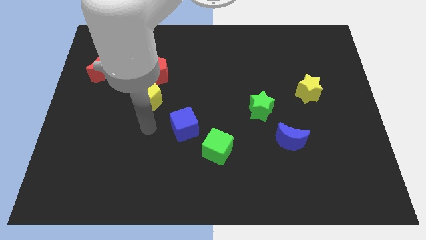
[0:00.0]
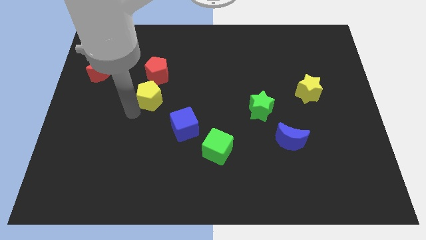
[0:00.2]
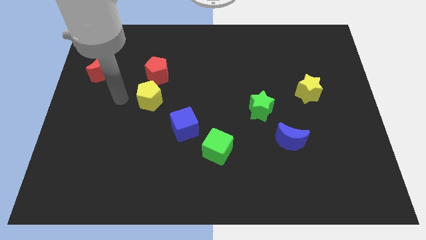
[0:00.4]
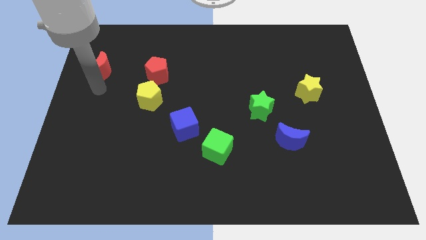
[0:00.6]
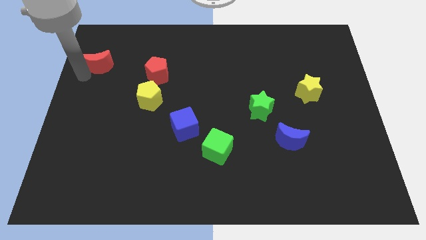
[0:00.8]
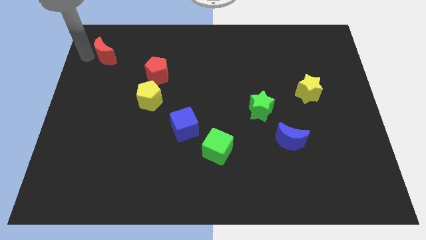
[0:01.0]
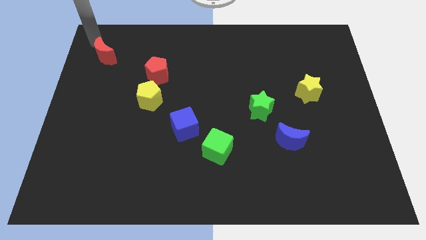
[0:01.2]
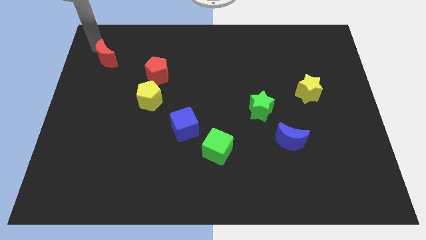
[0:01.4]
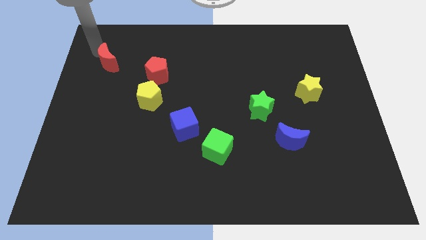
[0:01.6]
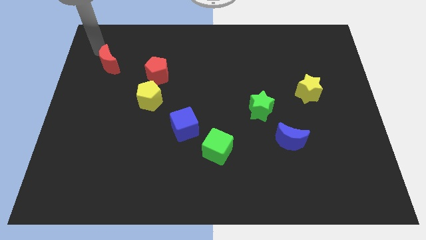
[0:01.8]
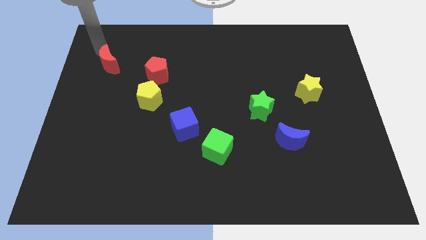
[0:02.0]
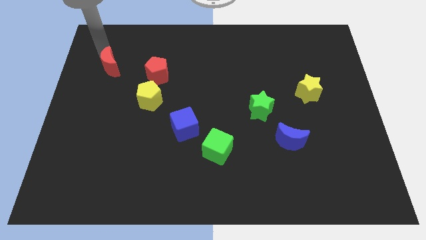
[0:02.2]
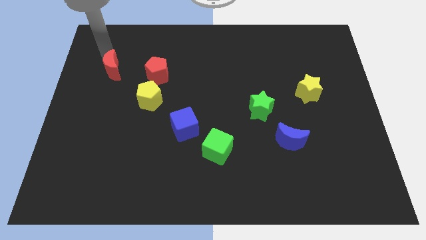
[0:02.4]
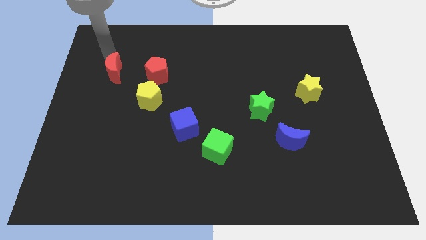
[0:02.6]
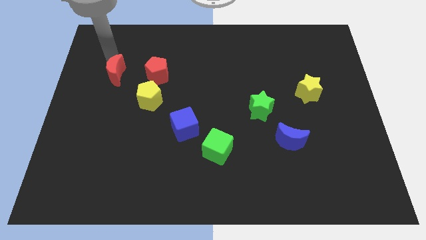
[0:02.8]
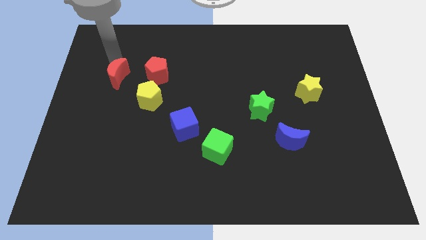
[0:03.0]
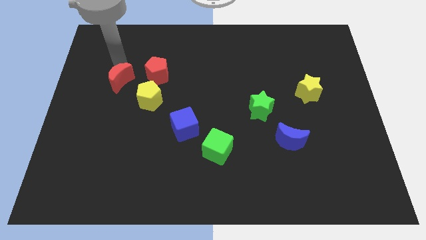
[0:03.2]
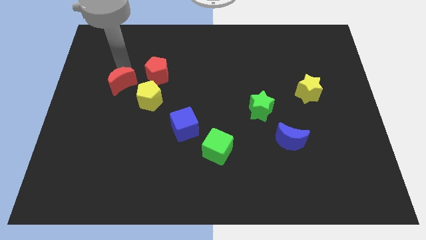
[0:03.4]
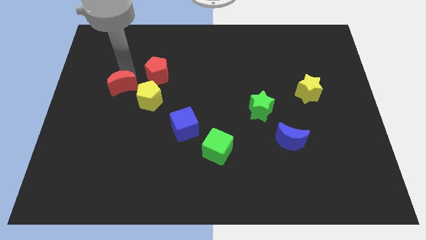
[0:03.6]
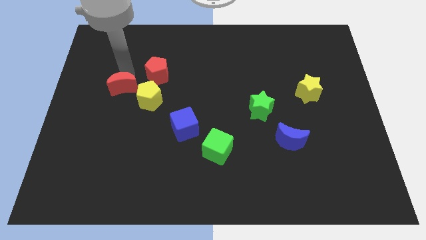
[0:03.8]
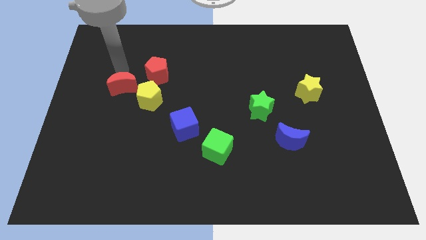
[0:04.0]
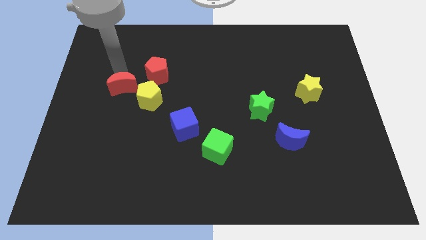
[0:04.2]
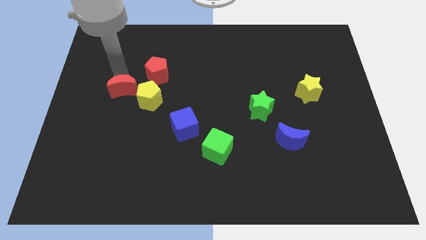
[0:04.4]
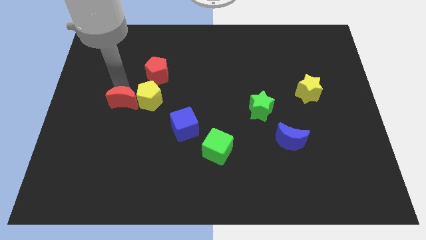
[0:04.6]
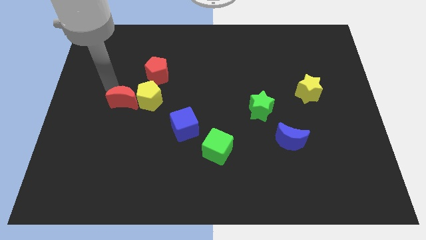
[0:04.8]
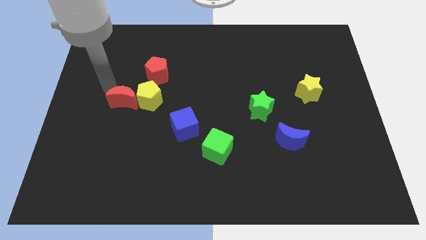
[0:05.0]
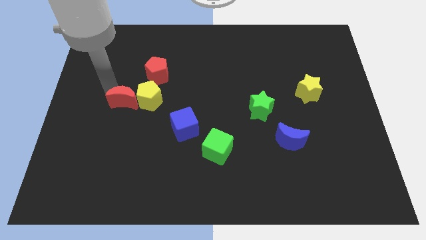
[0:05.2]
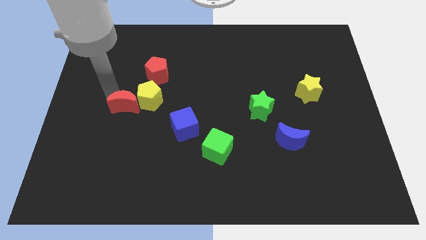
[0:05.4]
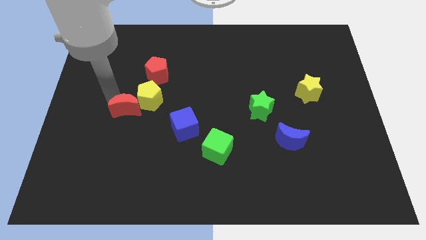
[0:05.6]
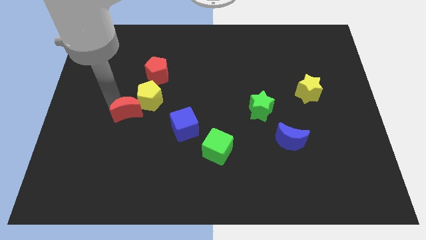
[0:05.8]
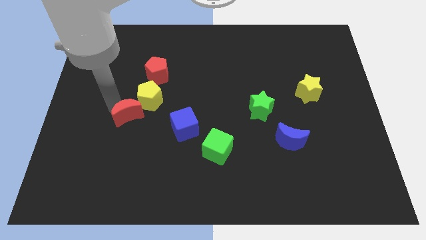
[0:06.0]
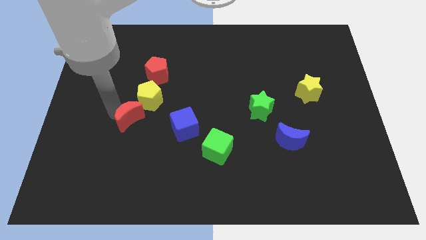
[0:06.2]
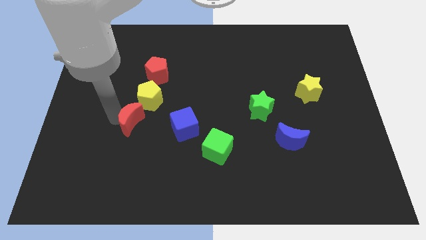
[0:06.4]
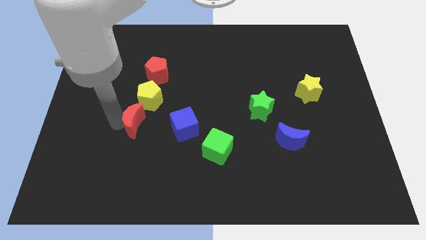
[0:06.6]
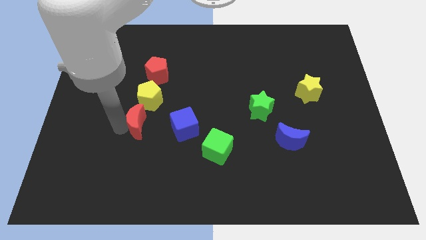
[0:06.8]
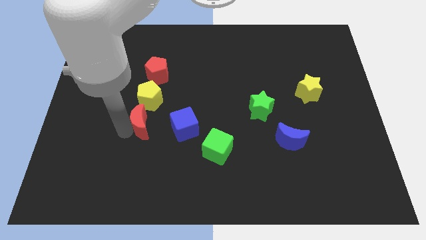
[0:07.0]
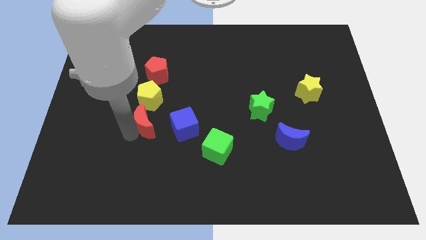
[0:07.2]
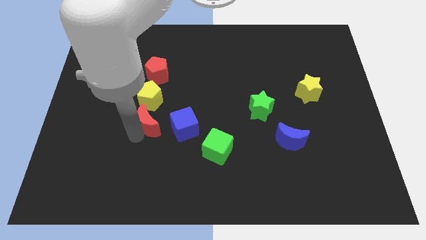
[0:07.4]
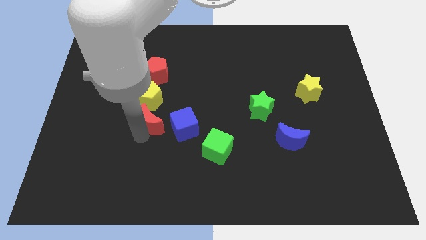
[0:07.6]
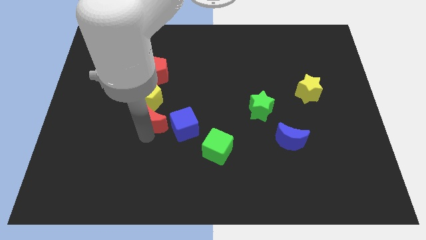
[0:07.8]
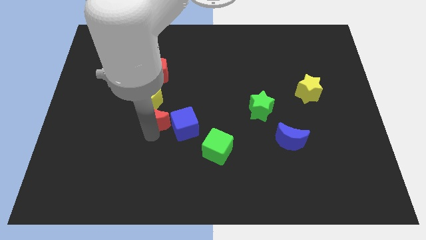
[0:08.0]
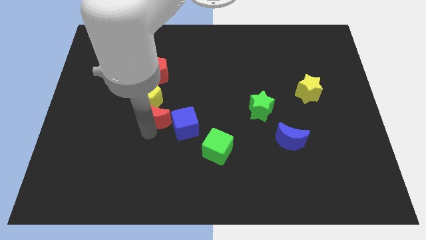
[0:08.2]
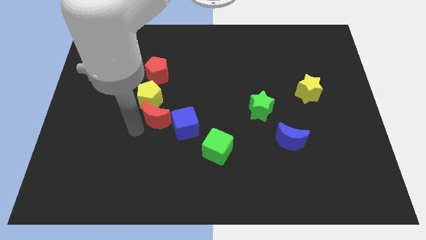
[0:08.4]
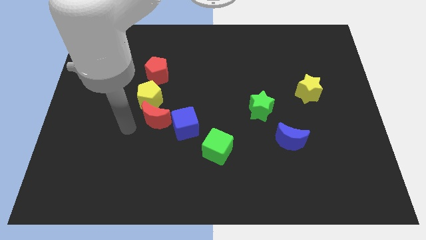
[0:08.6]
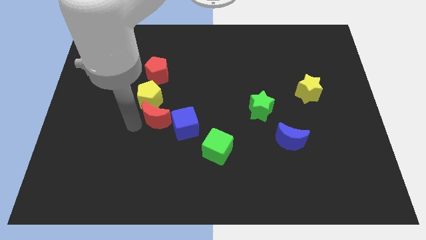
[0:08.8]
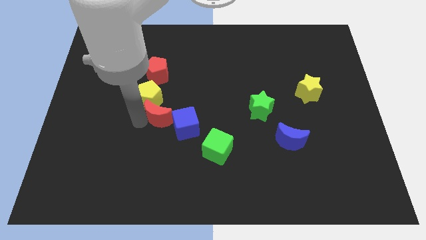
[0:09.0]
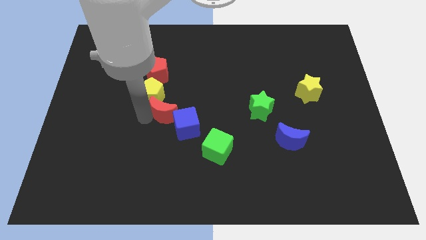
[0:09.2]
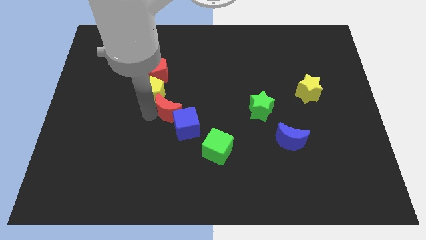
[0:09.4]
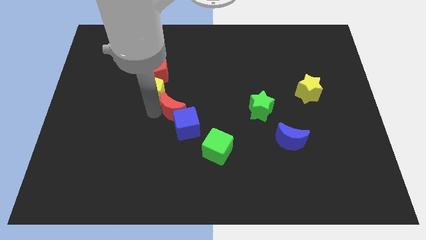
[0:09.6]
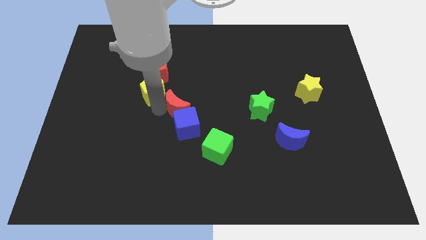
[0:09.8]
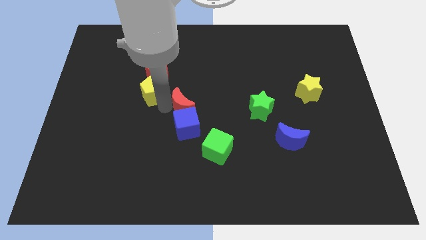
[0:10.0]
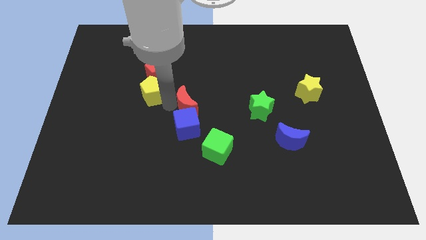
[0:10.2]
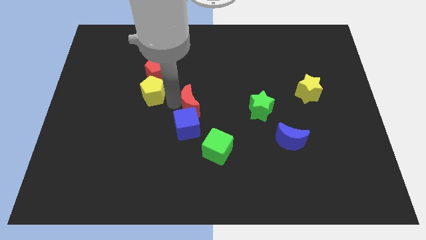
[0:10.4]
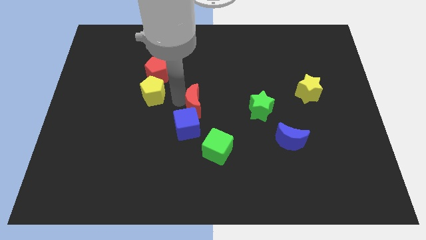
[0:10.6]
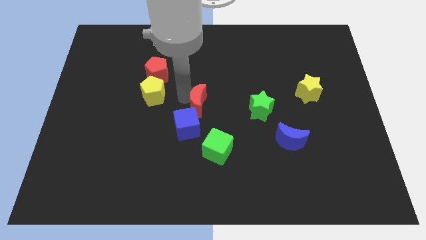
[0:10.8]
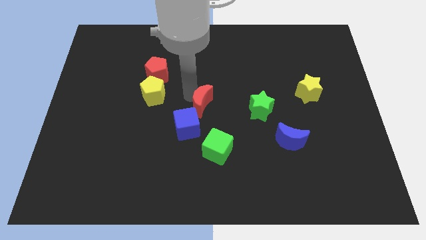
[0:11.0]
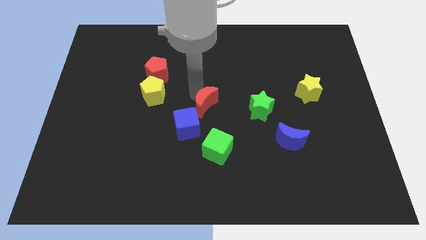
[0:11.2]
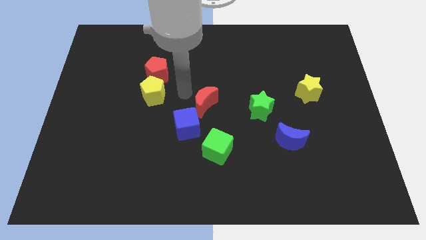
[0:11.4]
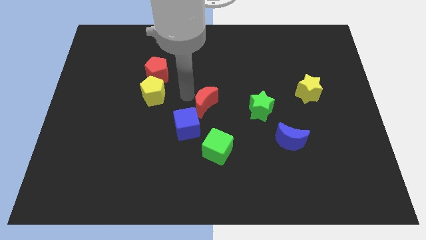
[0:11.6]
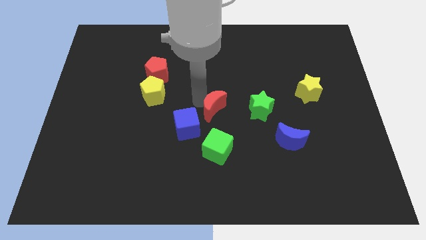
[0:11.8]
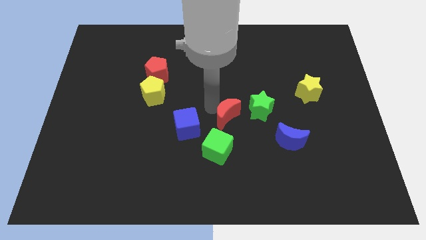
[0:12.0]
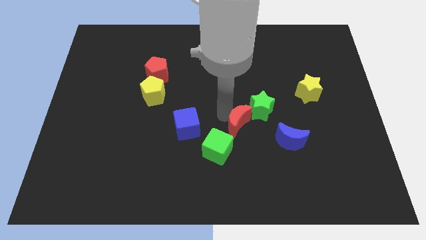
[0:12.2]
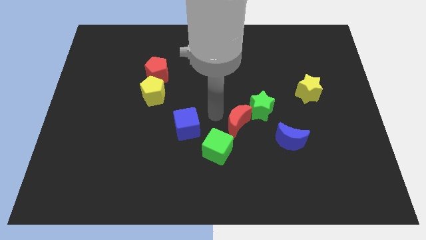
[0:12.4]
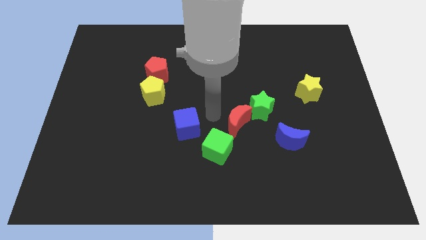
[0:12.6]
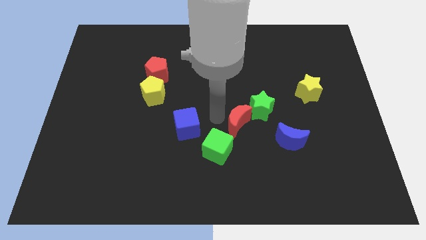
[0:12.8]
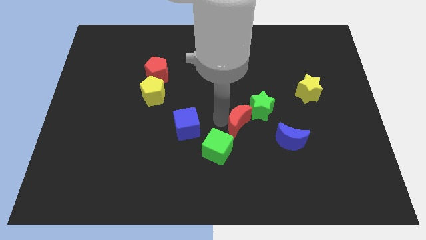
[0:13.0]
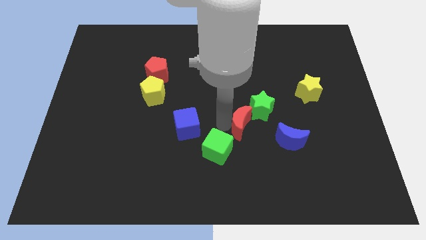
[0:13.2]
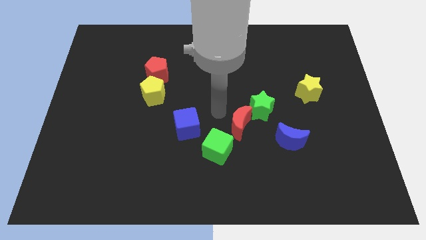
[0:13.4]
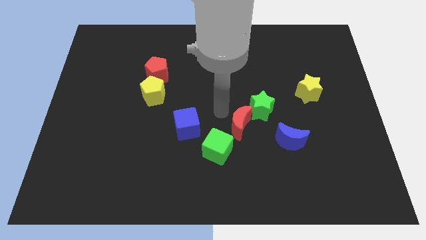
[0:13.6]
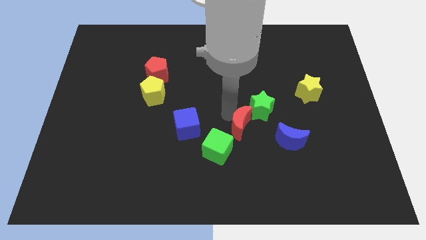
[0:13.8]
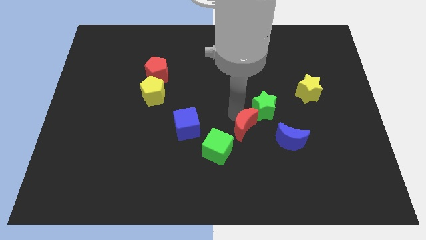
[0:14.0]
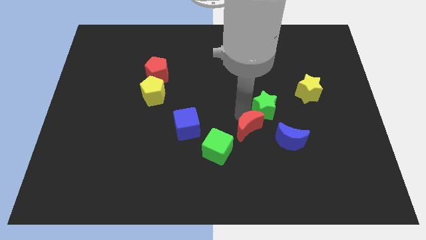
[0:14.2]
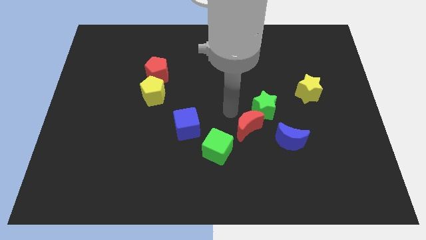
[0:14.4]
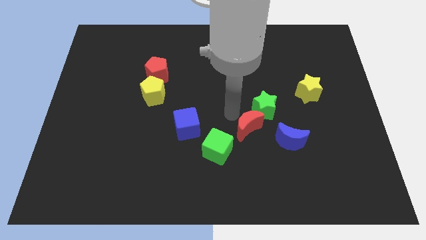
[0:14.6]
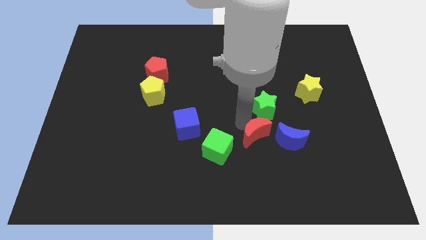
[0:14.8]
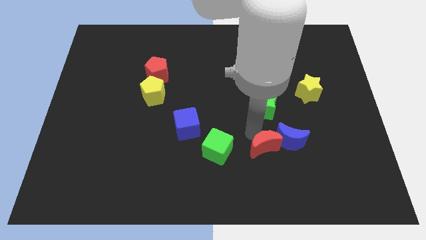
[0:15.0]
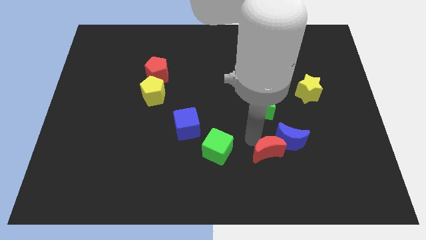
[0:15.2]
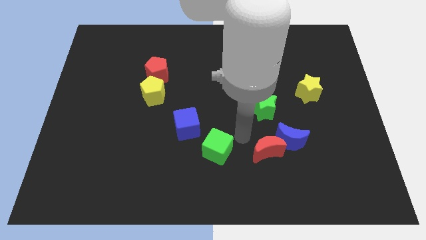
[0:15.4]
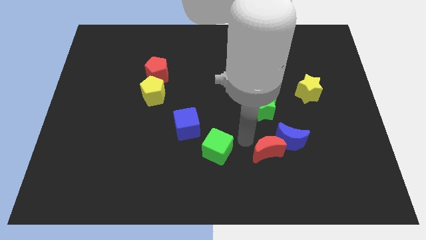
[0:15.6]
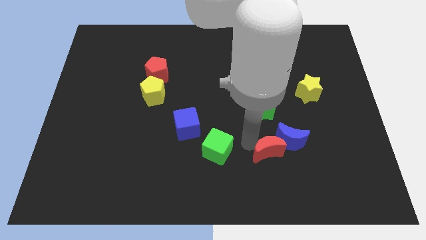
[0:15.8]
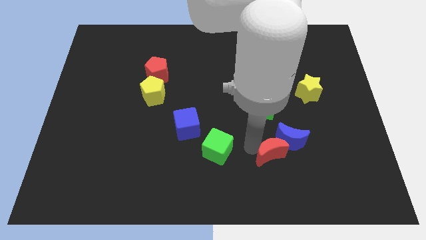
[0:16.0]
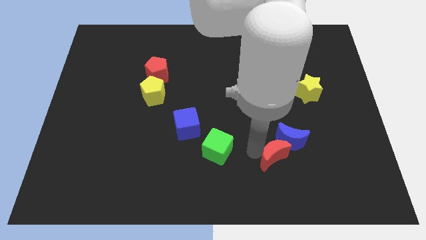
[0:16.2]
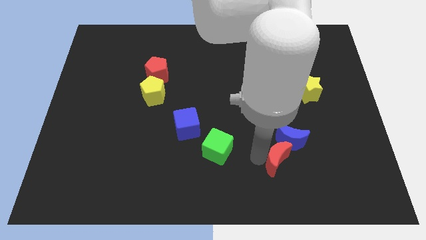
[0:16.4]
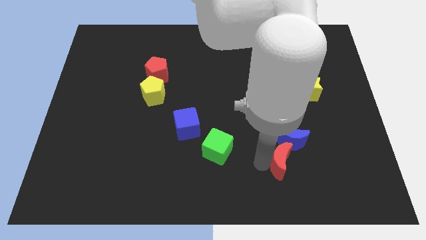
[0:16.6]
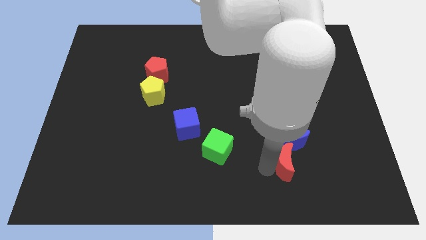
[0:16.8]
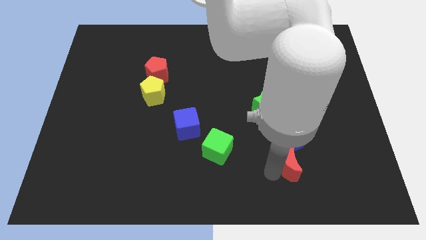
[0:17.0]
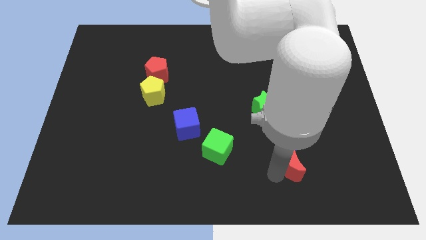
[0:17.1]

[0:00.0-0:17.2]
slide the red moon to the bottom right of the blue moon
